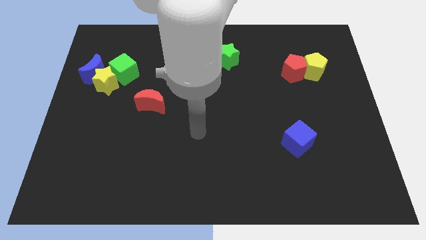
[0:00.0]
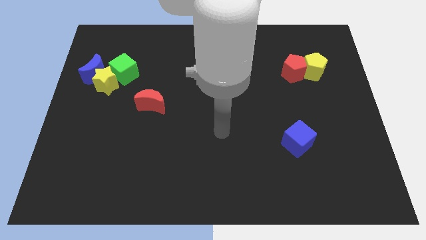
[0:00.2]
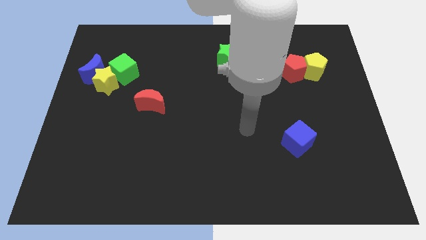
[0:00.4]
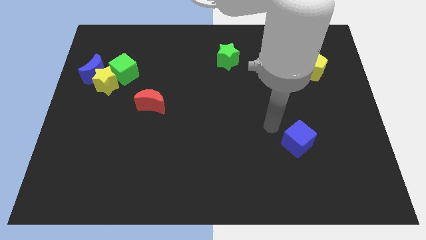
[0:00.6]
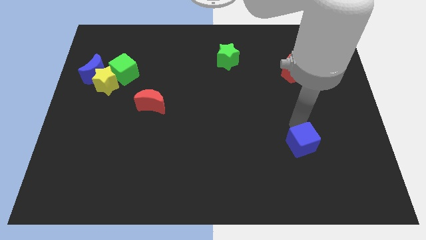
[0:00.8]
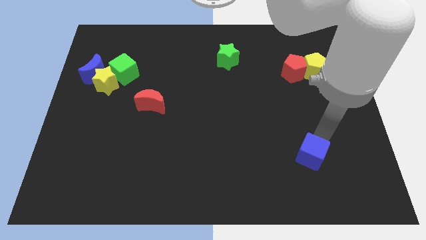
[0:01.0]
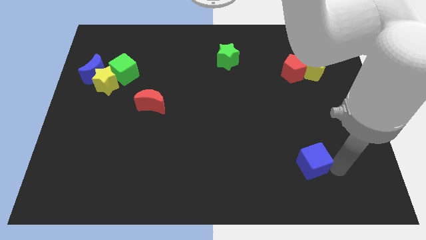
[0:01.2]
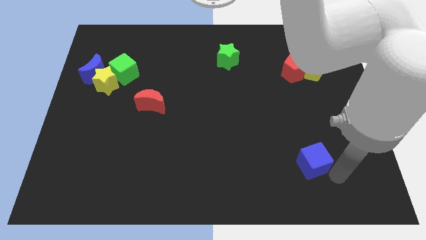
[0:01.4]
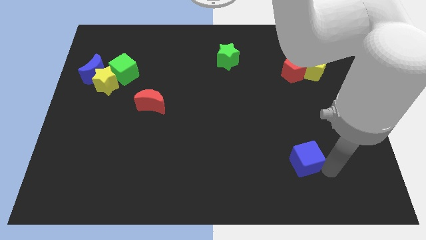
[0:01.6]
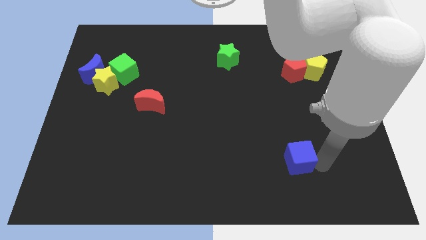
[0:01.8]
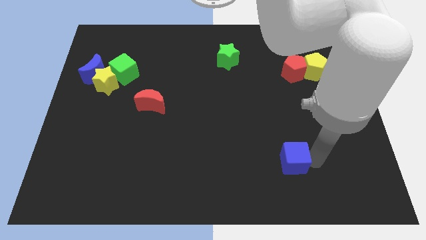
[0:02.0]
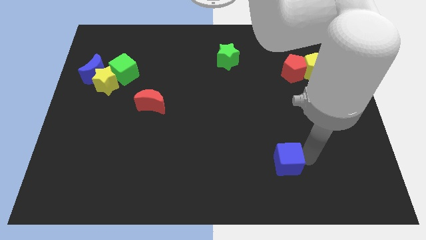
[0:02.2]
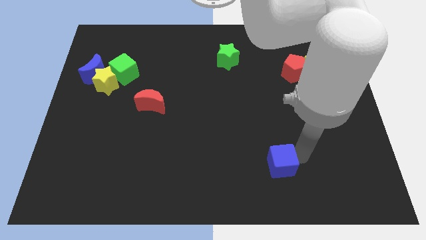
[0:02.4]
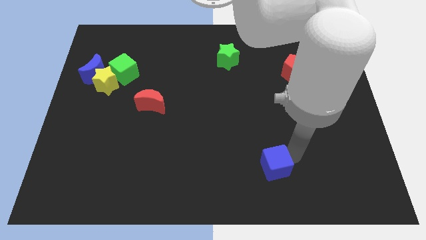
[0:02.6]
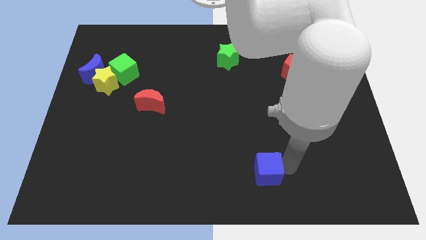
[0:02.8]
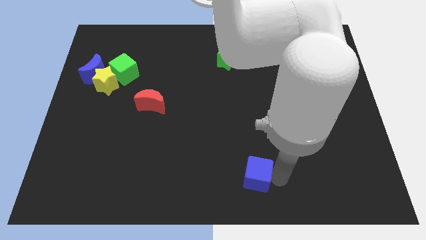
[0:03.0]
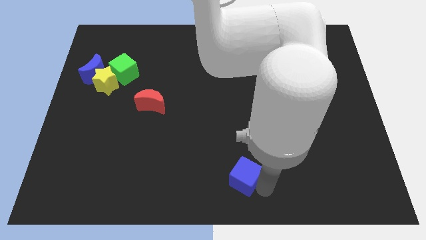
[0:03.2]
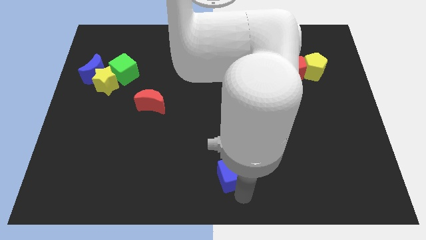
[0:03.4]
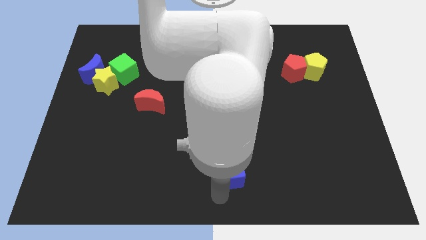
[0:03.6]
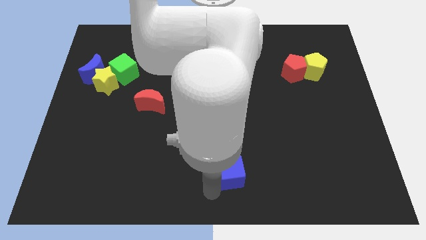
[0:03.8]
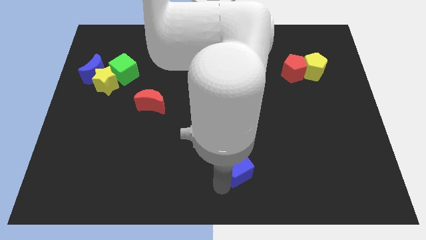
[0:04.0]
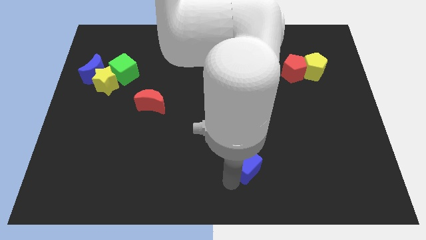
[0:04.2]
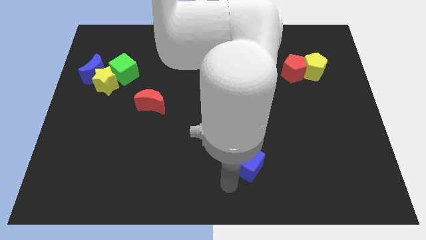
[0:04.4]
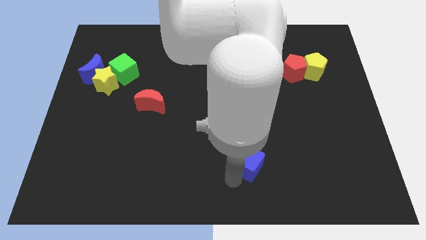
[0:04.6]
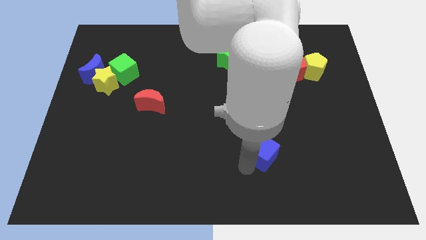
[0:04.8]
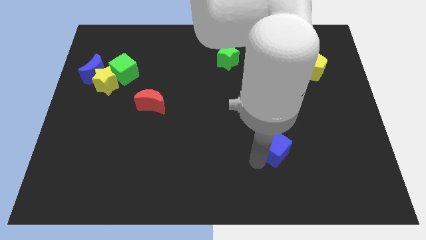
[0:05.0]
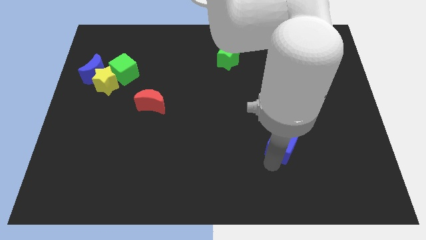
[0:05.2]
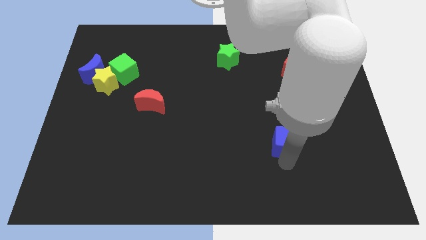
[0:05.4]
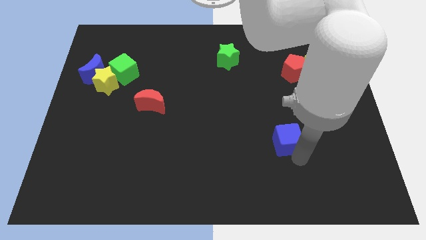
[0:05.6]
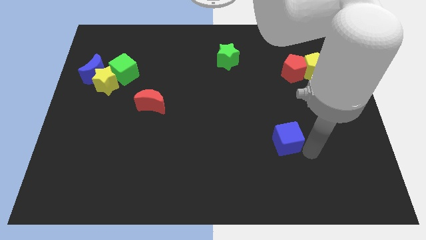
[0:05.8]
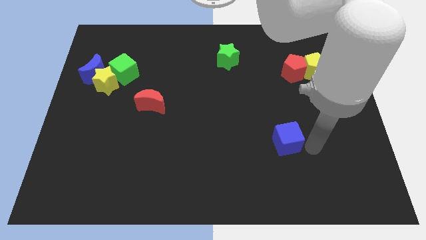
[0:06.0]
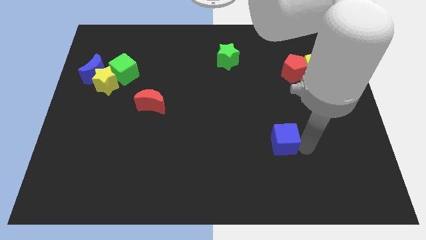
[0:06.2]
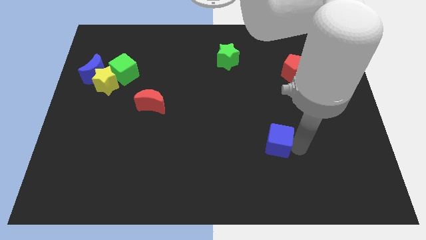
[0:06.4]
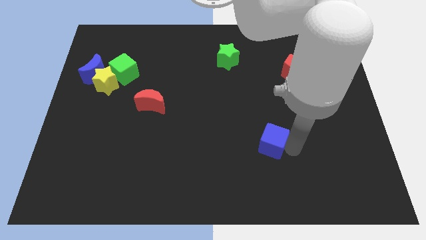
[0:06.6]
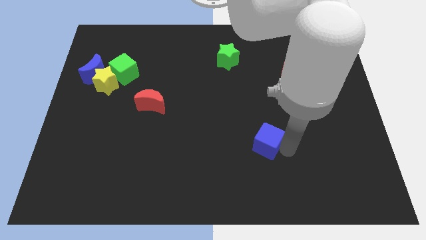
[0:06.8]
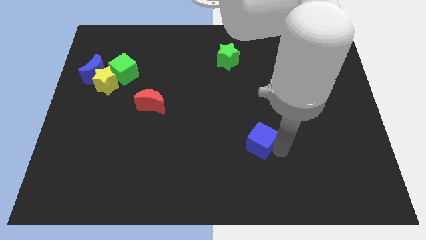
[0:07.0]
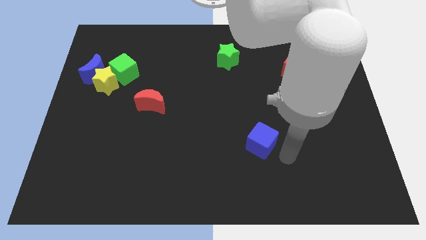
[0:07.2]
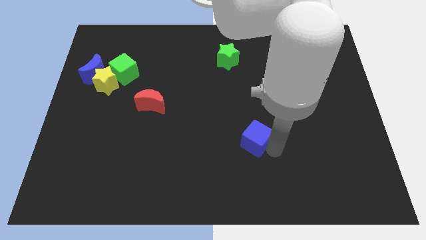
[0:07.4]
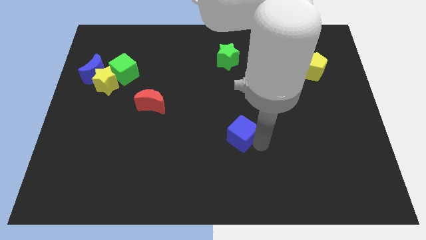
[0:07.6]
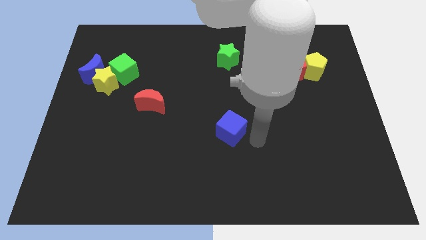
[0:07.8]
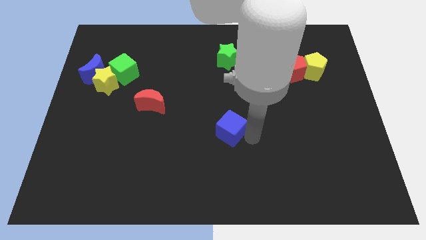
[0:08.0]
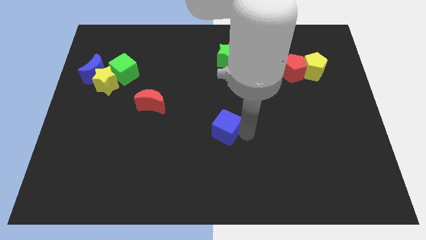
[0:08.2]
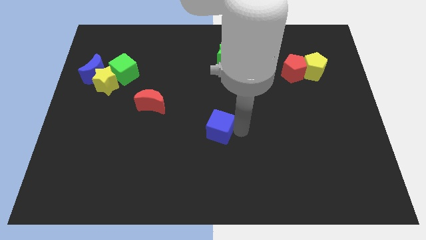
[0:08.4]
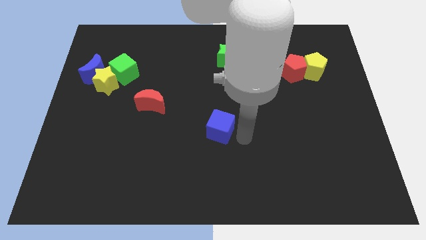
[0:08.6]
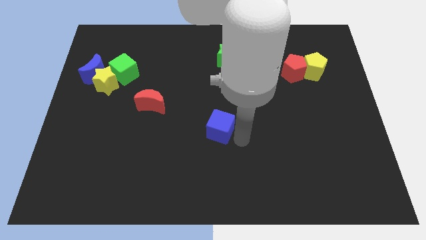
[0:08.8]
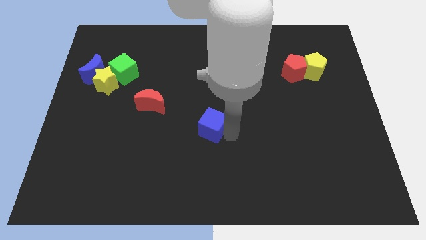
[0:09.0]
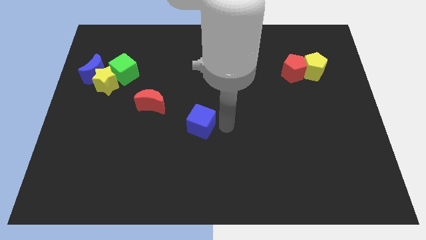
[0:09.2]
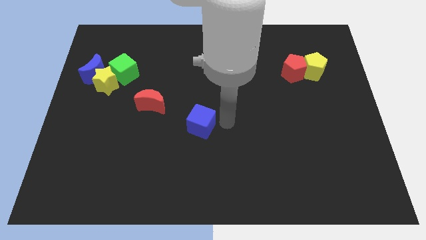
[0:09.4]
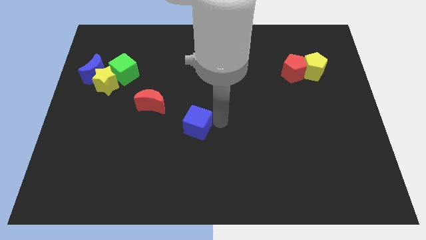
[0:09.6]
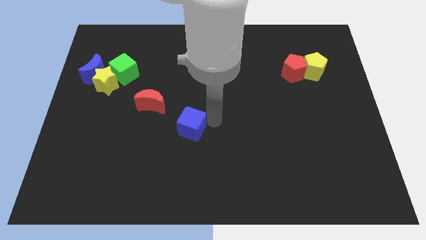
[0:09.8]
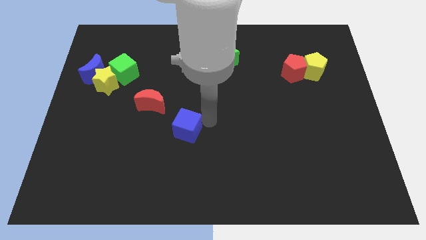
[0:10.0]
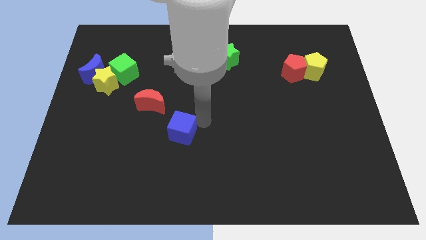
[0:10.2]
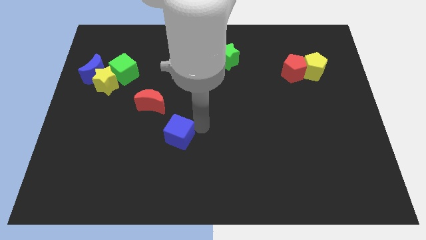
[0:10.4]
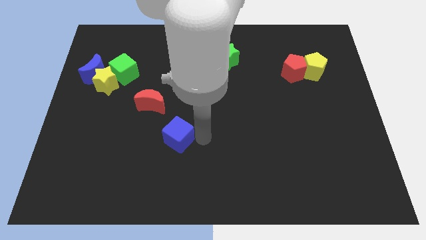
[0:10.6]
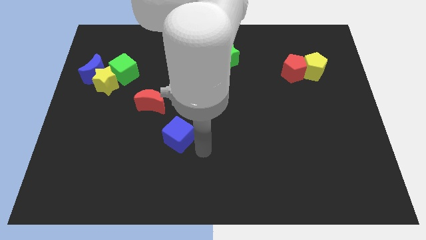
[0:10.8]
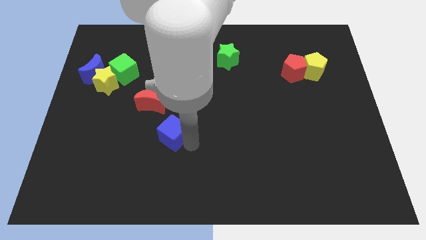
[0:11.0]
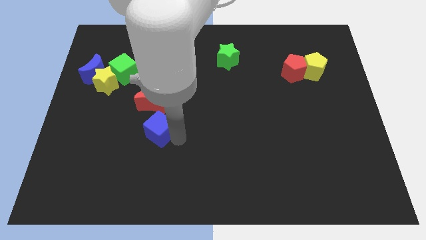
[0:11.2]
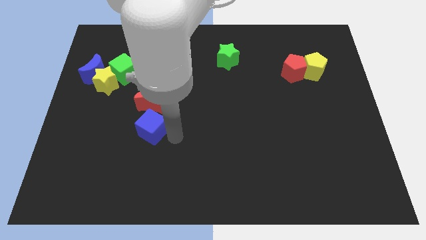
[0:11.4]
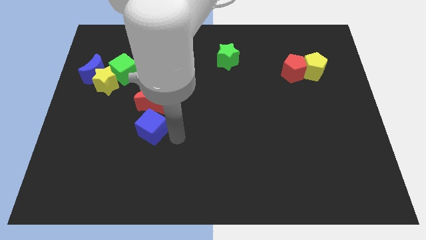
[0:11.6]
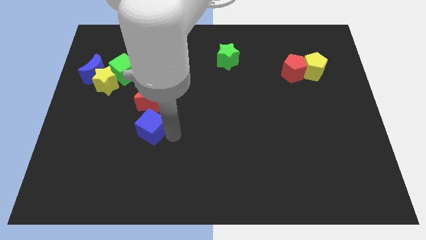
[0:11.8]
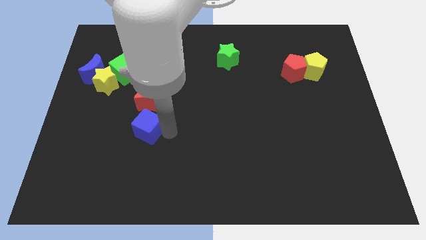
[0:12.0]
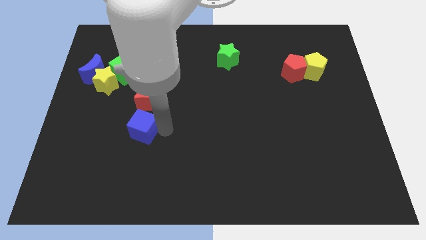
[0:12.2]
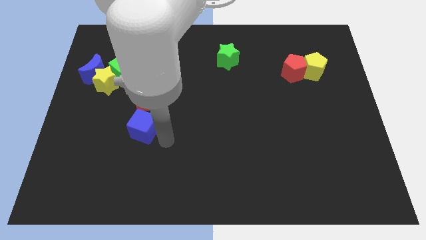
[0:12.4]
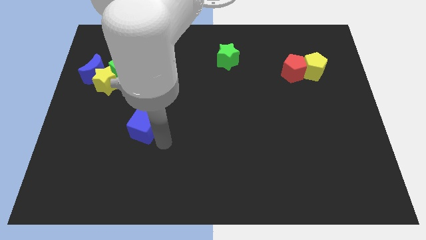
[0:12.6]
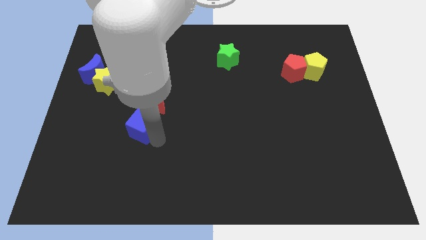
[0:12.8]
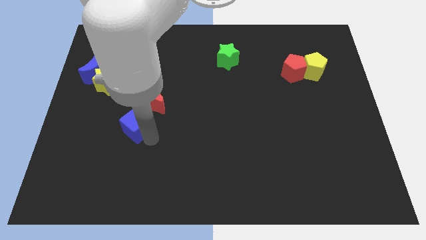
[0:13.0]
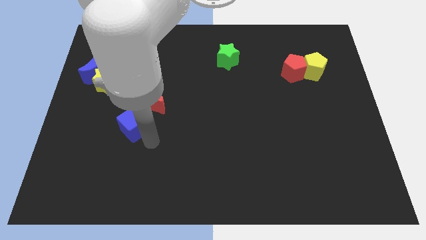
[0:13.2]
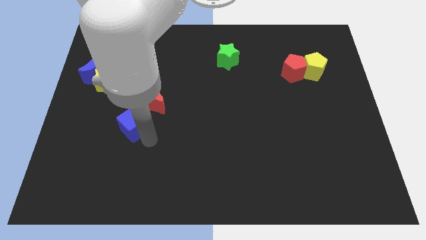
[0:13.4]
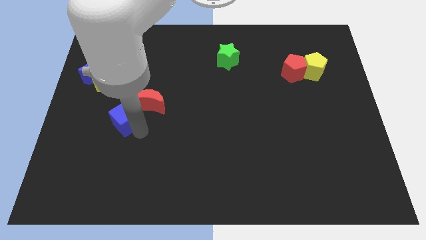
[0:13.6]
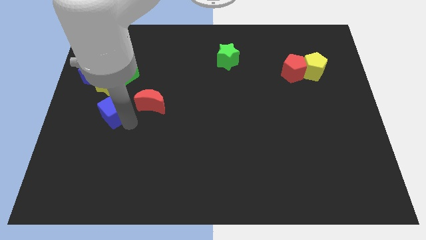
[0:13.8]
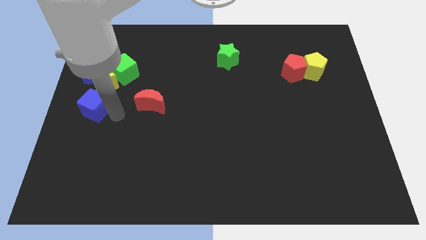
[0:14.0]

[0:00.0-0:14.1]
put the blue cube to the left side of the board
